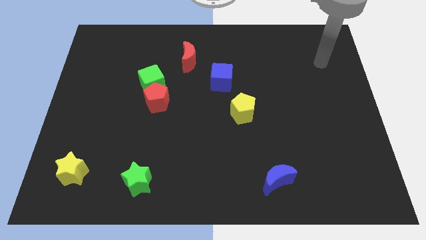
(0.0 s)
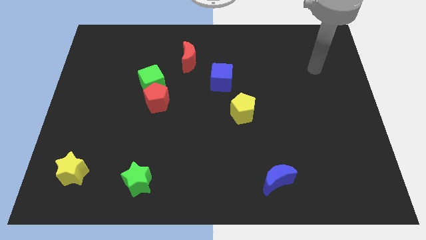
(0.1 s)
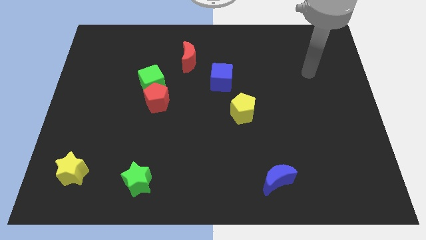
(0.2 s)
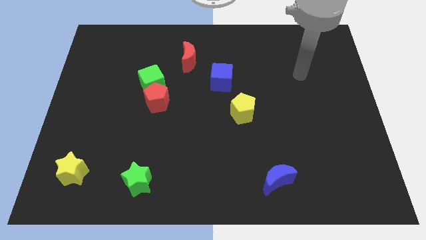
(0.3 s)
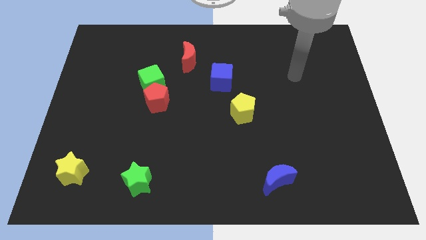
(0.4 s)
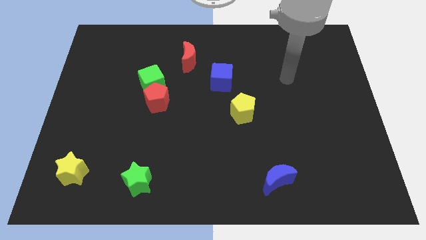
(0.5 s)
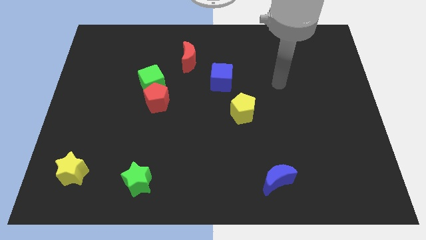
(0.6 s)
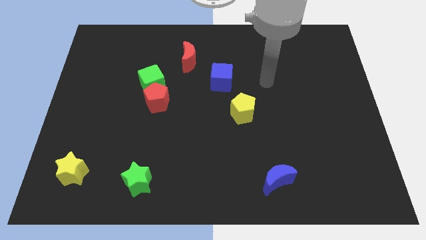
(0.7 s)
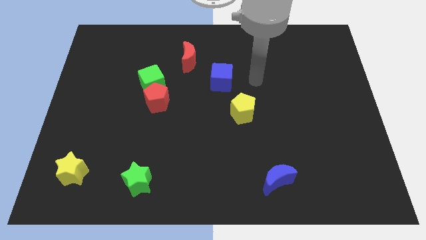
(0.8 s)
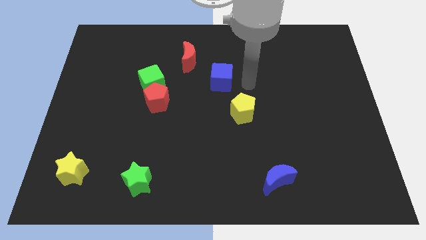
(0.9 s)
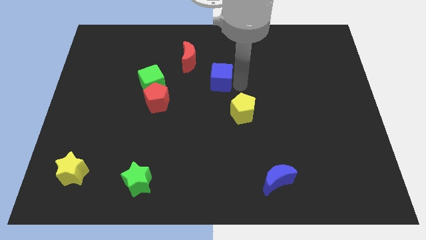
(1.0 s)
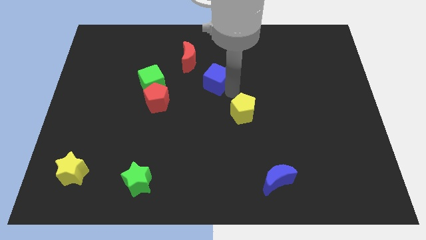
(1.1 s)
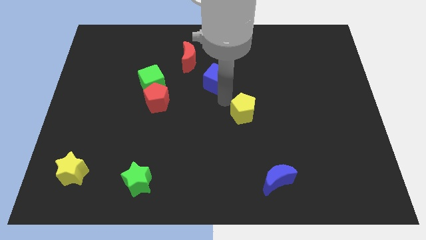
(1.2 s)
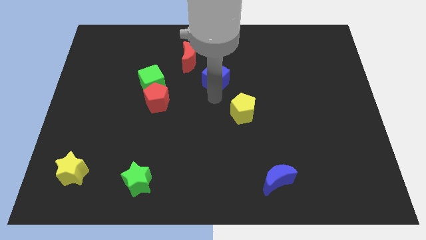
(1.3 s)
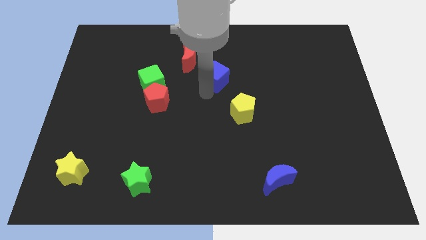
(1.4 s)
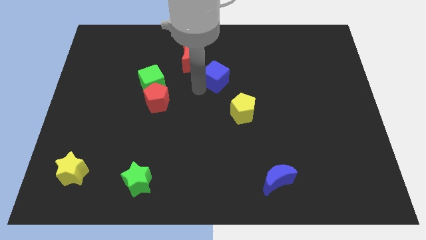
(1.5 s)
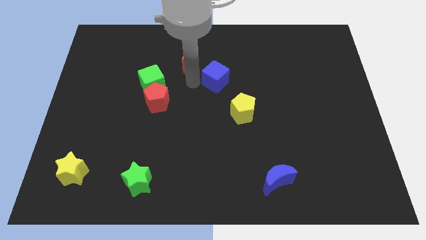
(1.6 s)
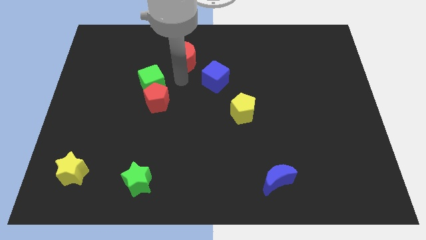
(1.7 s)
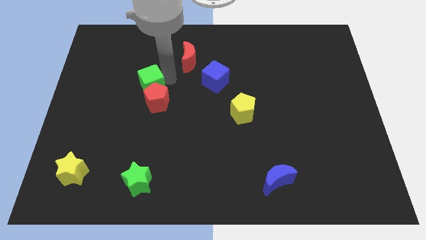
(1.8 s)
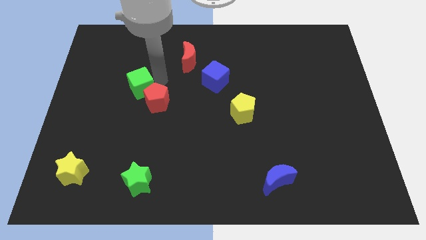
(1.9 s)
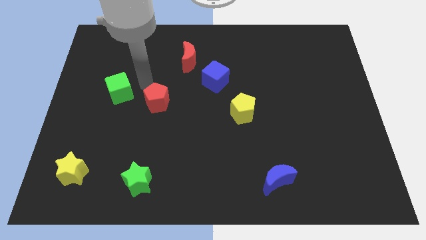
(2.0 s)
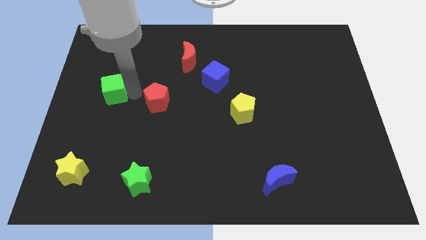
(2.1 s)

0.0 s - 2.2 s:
separate the red pentagon from the green cube

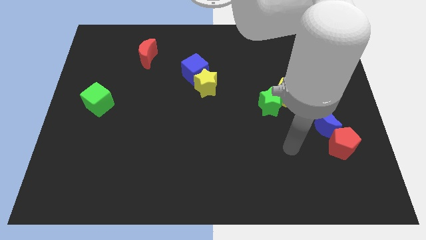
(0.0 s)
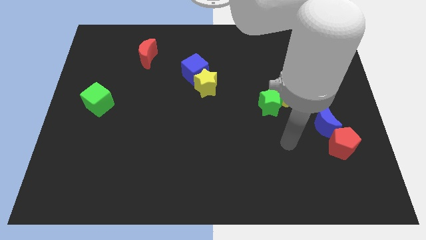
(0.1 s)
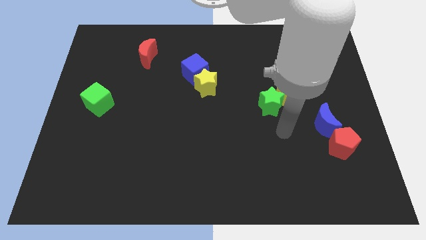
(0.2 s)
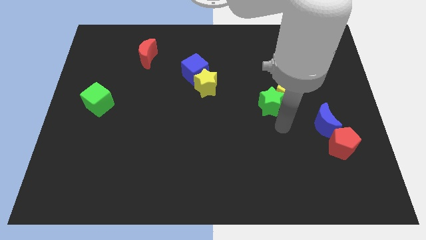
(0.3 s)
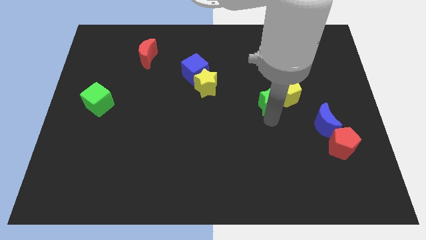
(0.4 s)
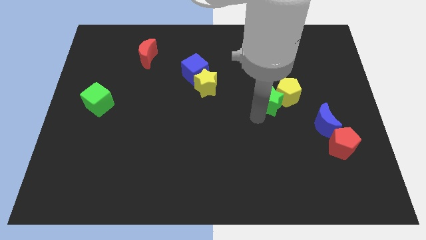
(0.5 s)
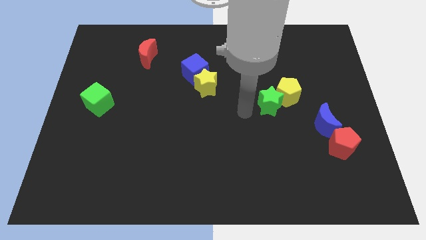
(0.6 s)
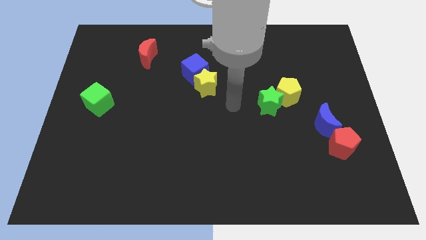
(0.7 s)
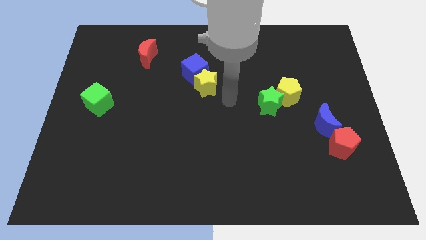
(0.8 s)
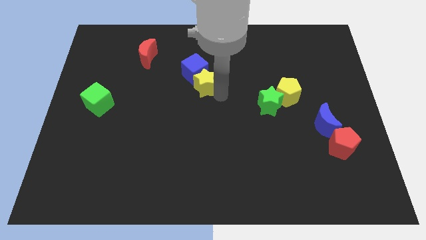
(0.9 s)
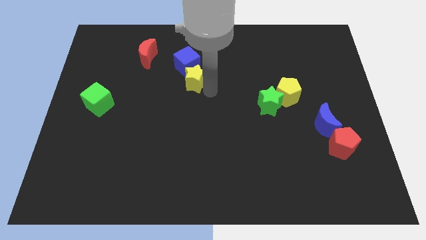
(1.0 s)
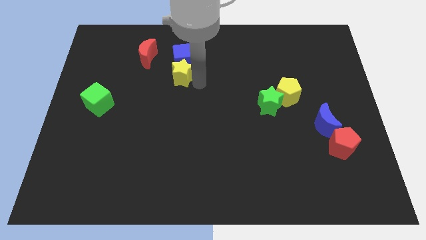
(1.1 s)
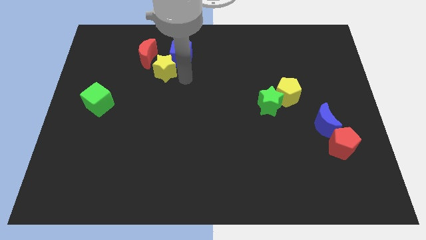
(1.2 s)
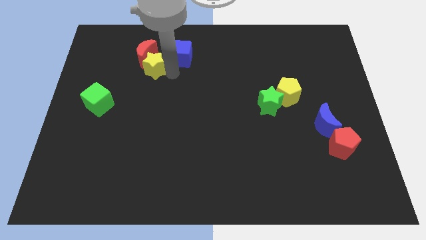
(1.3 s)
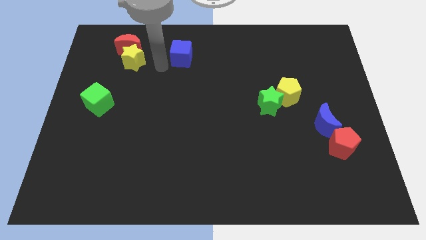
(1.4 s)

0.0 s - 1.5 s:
pull the blue cube apart from the yellow star

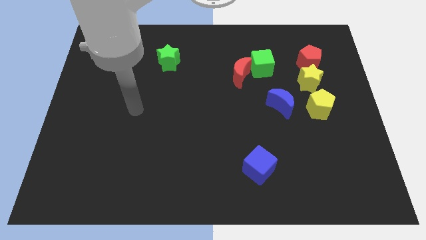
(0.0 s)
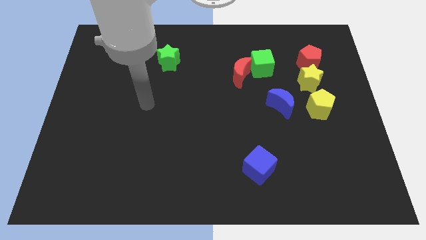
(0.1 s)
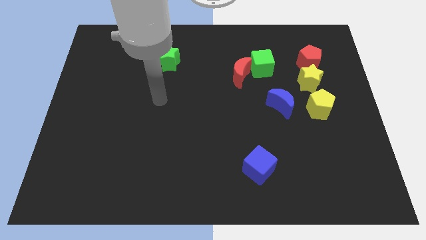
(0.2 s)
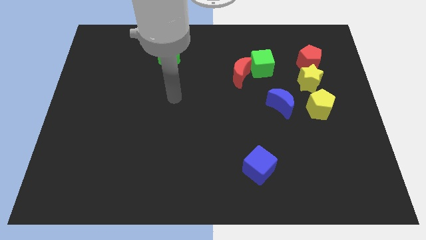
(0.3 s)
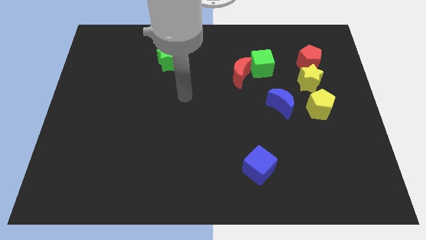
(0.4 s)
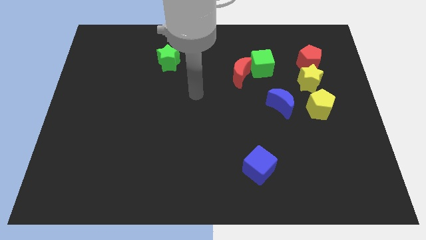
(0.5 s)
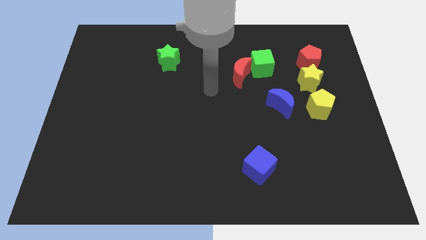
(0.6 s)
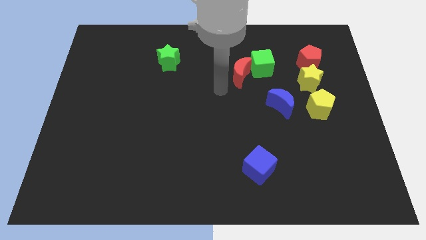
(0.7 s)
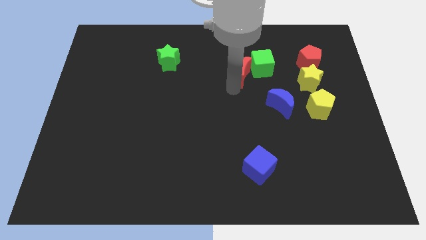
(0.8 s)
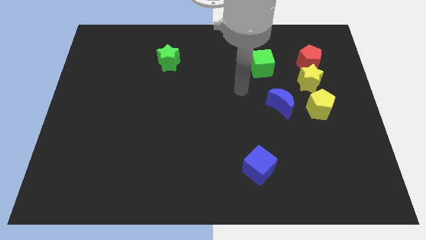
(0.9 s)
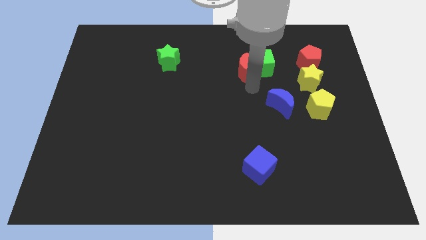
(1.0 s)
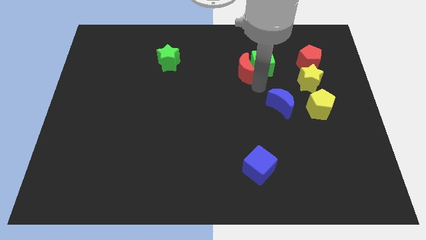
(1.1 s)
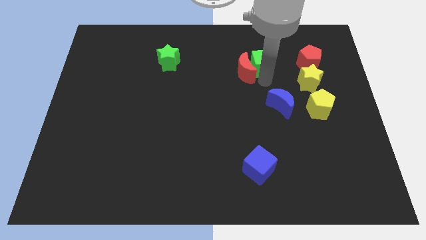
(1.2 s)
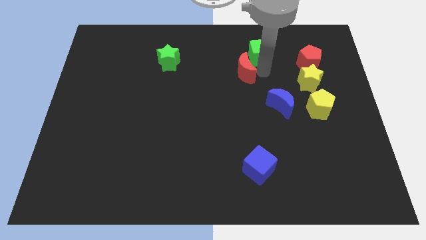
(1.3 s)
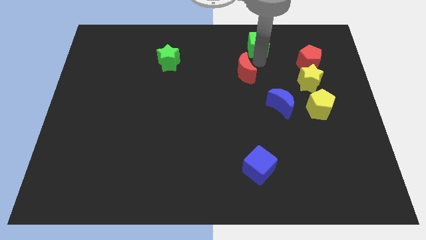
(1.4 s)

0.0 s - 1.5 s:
pull the red moon apart from the green cube

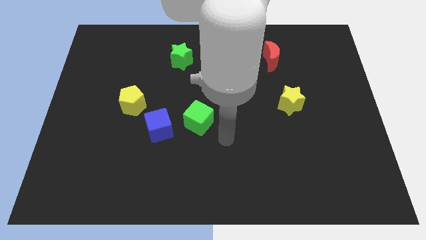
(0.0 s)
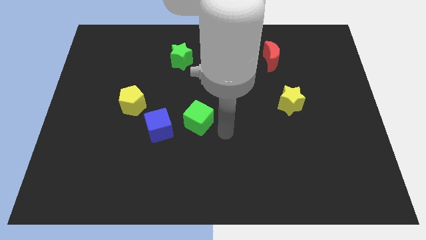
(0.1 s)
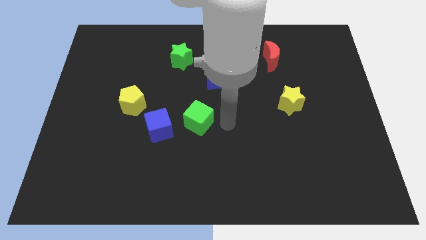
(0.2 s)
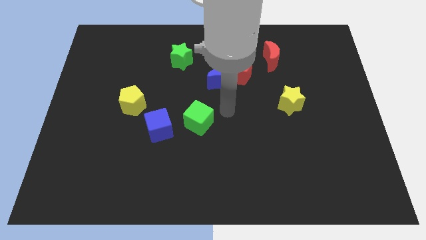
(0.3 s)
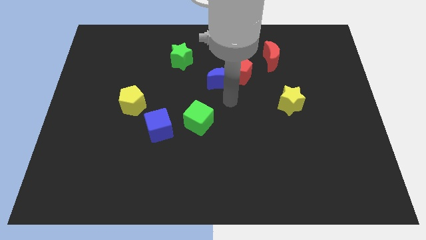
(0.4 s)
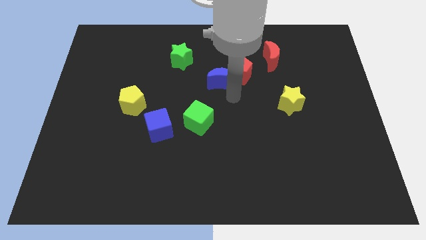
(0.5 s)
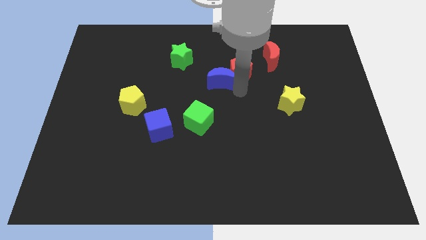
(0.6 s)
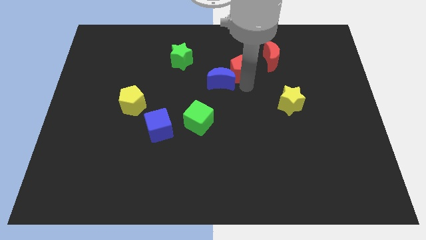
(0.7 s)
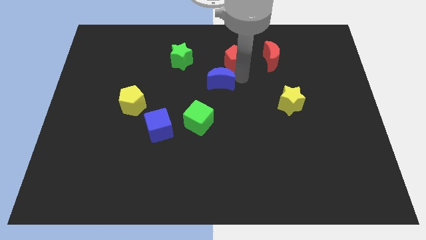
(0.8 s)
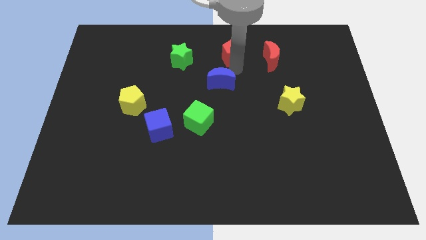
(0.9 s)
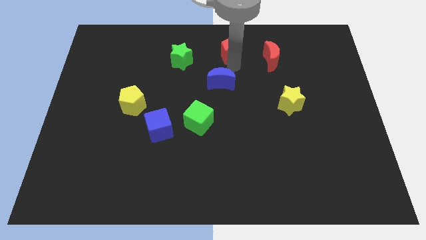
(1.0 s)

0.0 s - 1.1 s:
move the blue moon away from the red pentagon

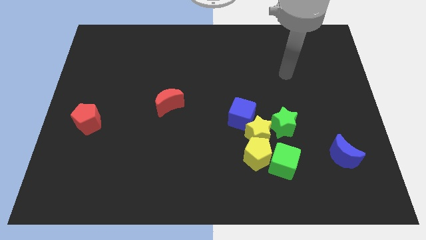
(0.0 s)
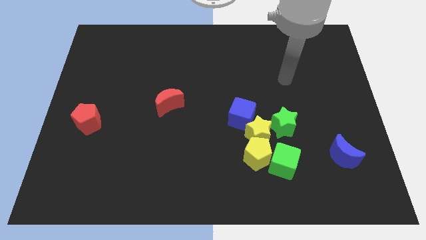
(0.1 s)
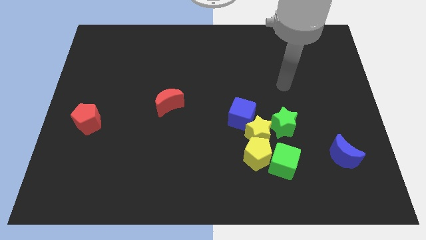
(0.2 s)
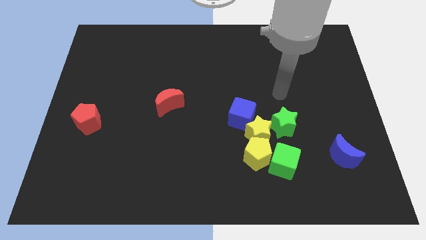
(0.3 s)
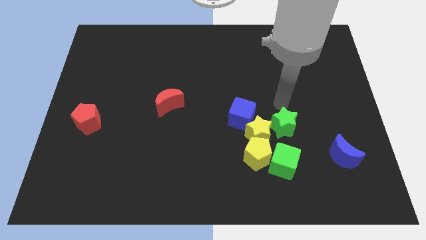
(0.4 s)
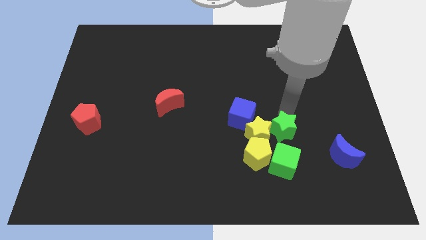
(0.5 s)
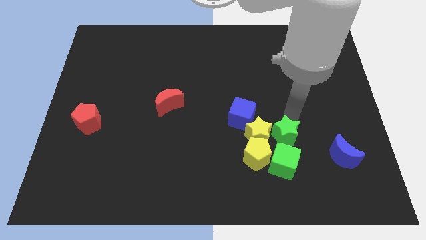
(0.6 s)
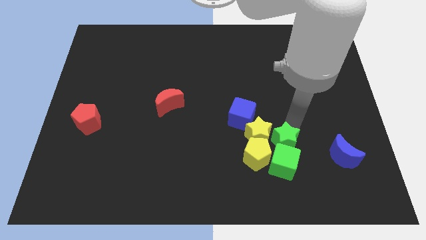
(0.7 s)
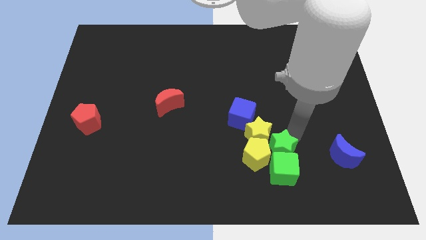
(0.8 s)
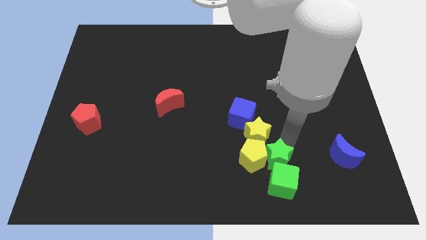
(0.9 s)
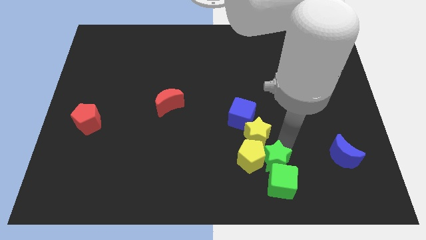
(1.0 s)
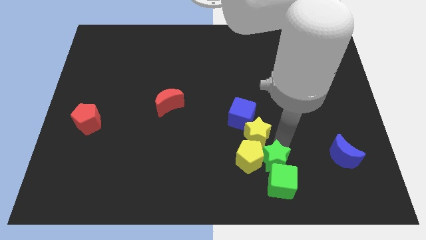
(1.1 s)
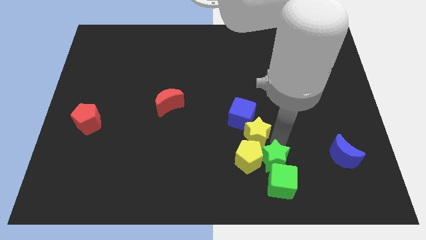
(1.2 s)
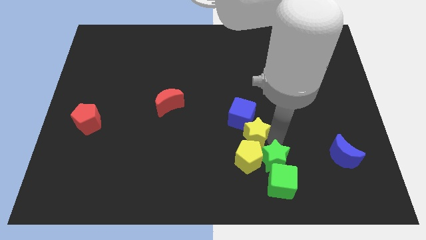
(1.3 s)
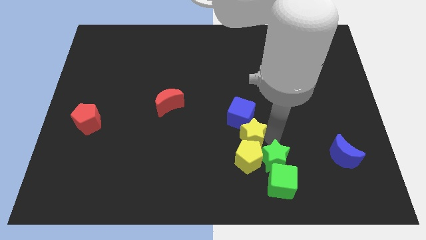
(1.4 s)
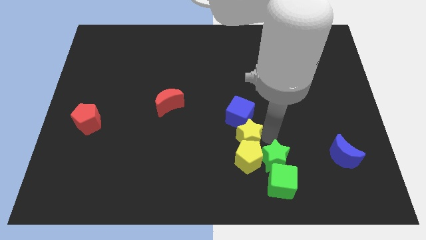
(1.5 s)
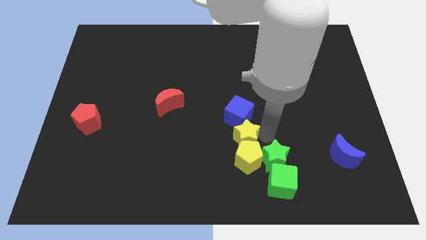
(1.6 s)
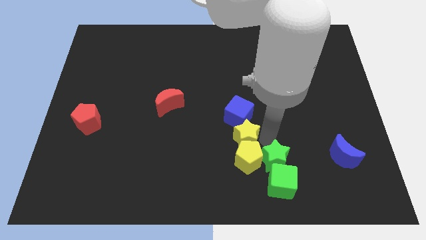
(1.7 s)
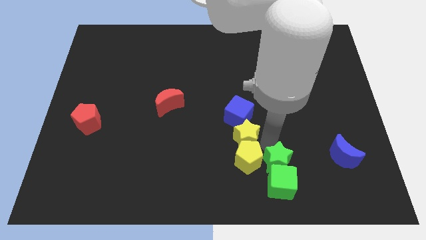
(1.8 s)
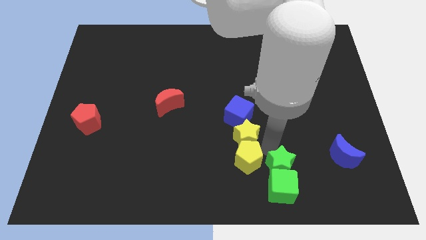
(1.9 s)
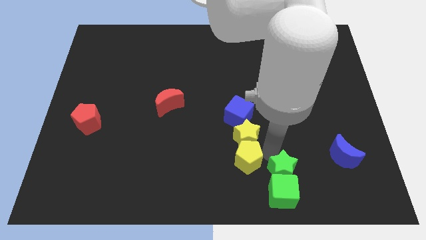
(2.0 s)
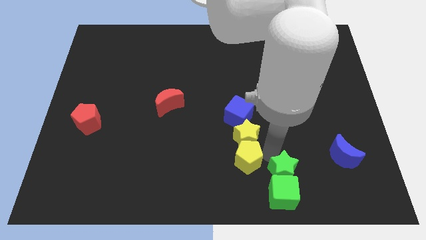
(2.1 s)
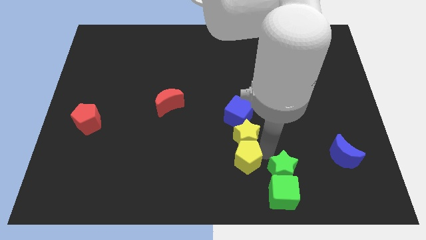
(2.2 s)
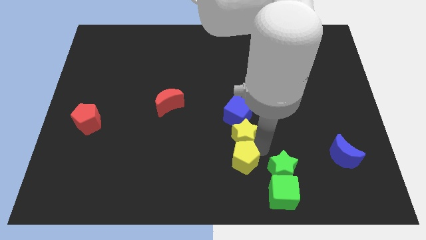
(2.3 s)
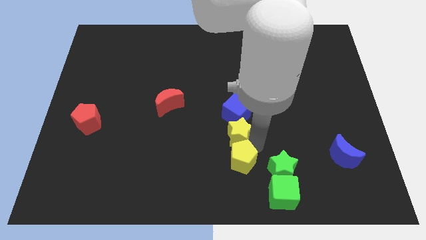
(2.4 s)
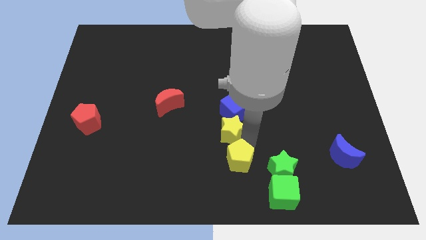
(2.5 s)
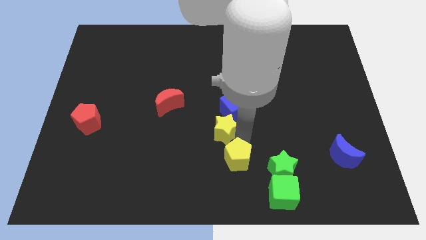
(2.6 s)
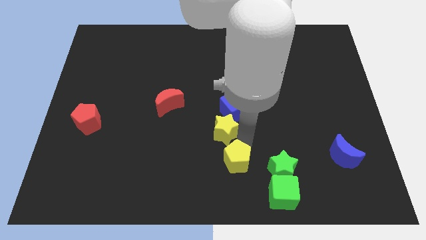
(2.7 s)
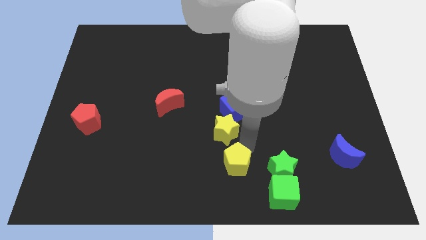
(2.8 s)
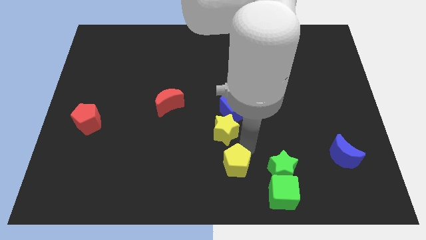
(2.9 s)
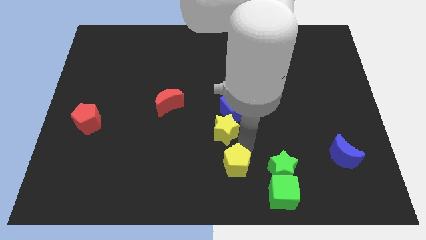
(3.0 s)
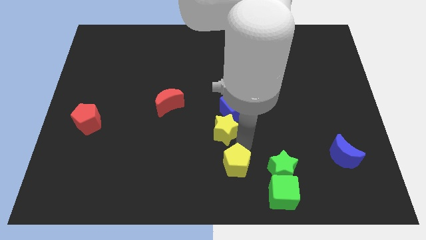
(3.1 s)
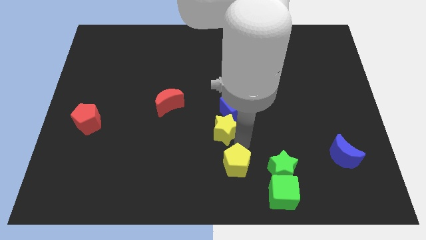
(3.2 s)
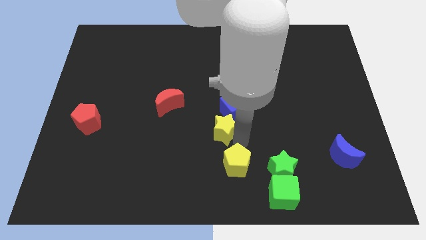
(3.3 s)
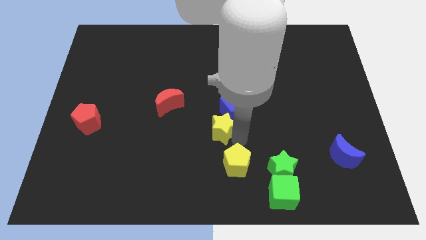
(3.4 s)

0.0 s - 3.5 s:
pull the yellow star apart from the group of blocks
